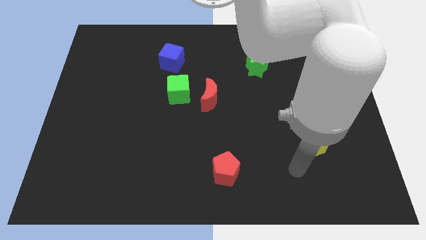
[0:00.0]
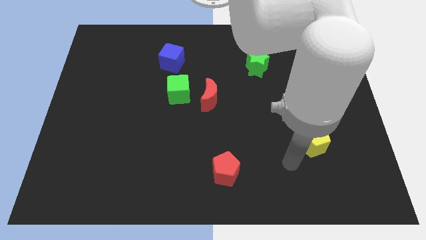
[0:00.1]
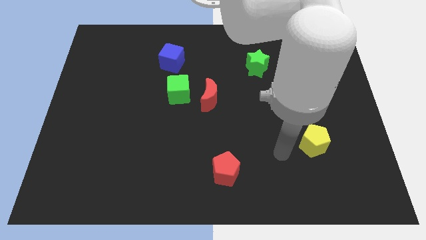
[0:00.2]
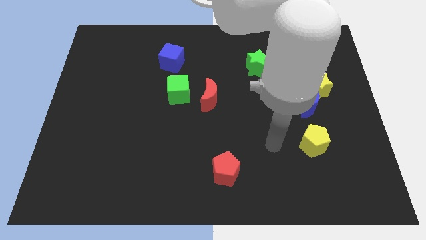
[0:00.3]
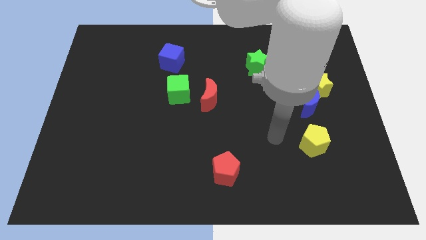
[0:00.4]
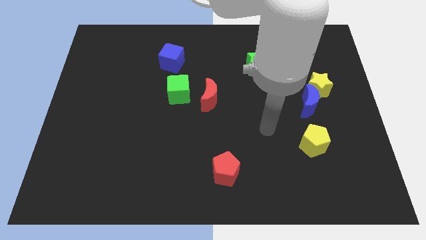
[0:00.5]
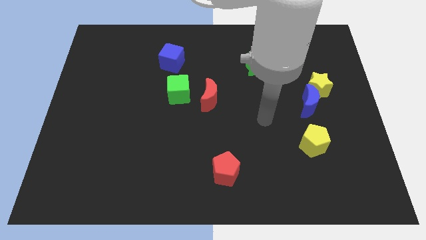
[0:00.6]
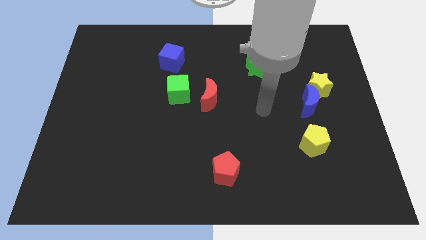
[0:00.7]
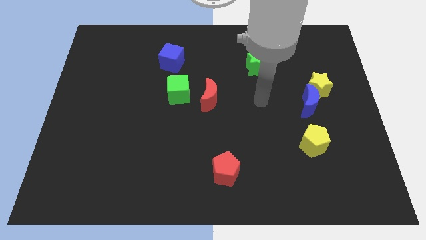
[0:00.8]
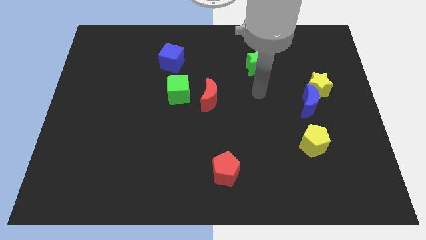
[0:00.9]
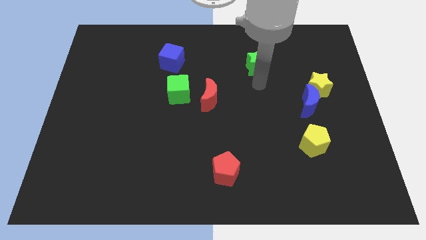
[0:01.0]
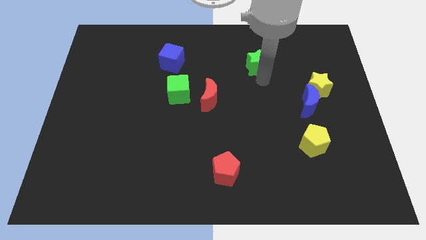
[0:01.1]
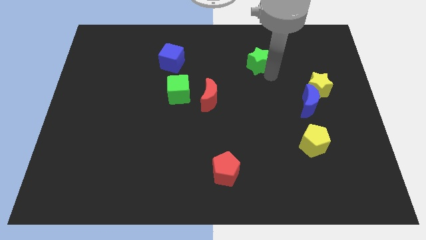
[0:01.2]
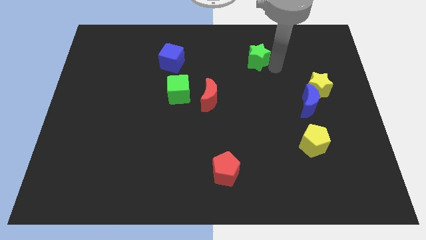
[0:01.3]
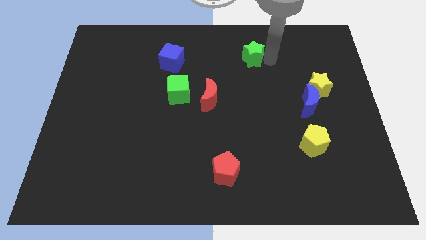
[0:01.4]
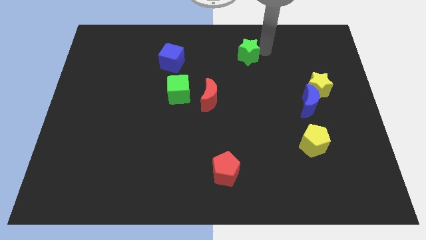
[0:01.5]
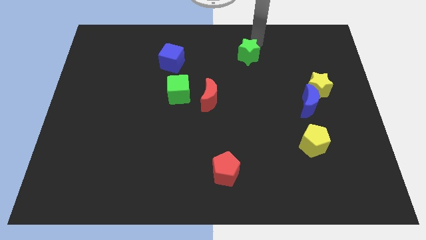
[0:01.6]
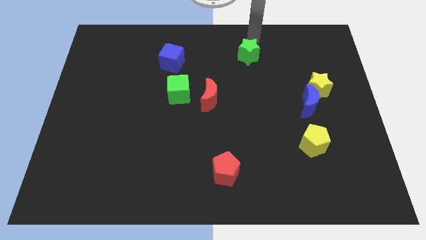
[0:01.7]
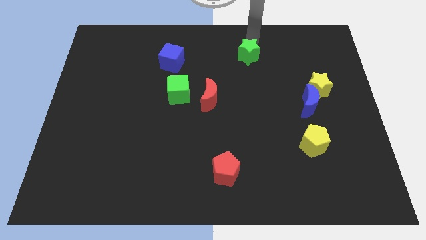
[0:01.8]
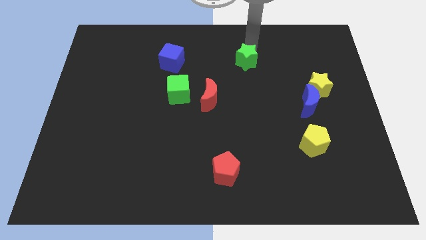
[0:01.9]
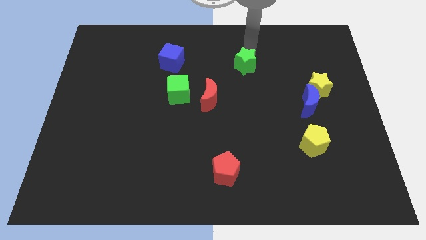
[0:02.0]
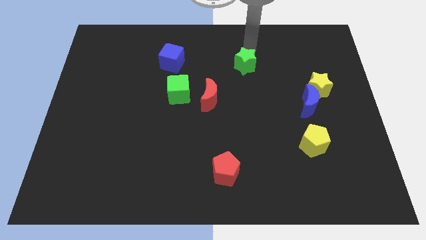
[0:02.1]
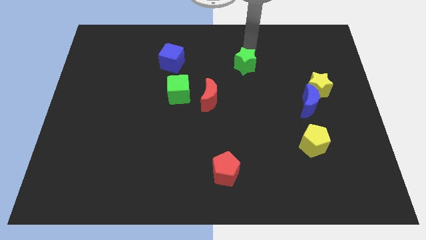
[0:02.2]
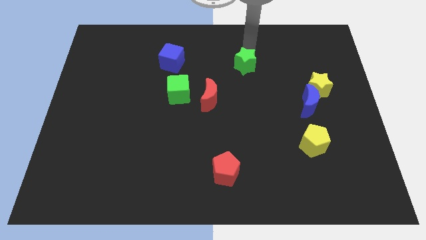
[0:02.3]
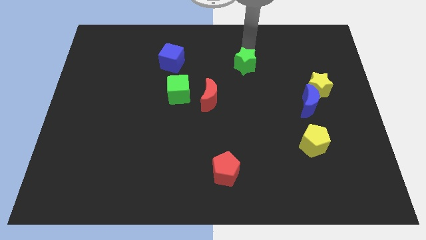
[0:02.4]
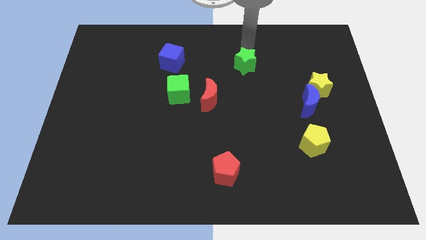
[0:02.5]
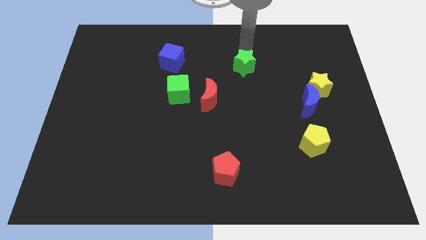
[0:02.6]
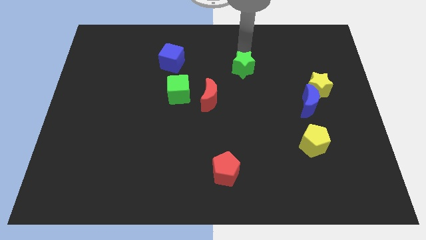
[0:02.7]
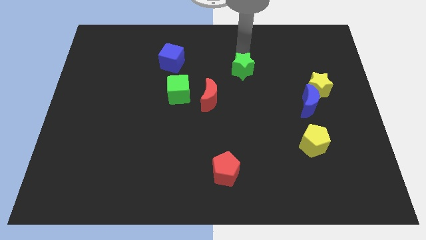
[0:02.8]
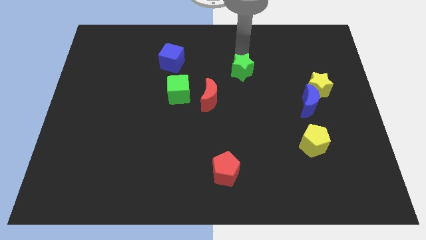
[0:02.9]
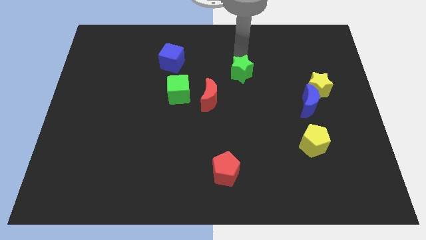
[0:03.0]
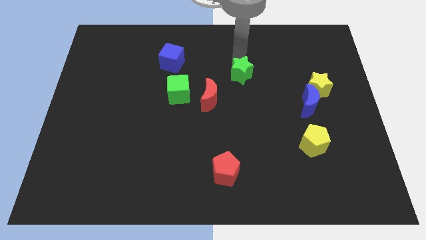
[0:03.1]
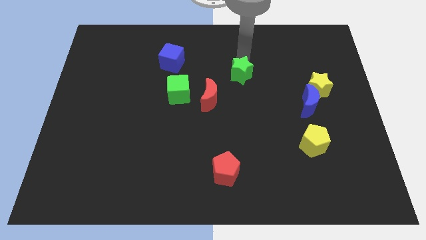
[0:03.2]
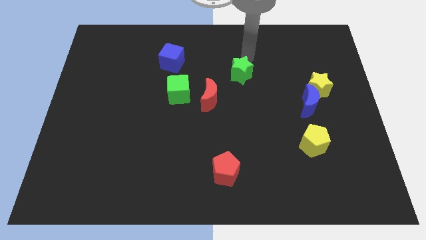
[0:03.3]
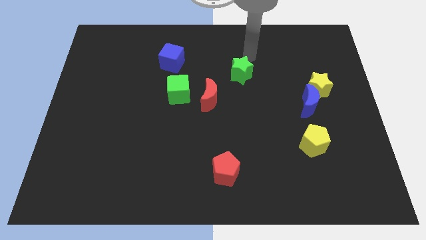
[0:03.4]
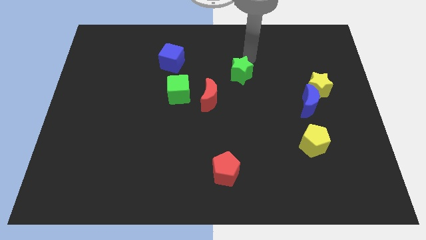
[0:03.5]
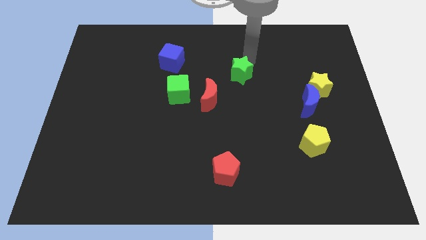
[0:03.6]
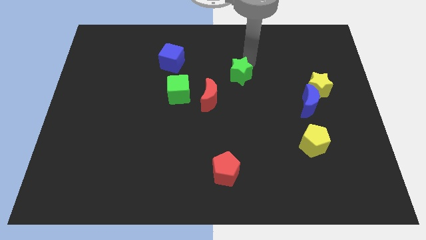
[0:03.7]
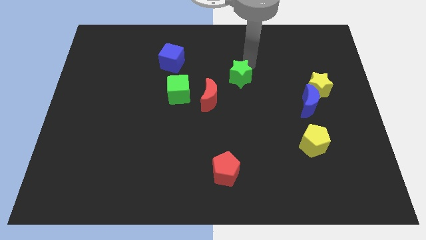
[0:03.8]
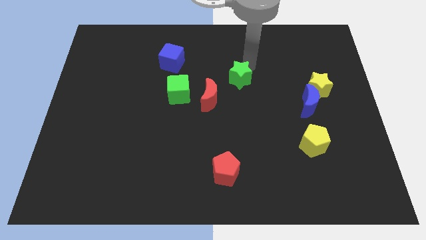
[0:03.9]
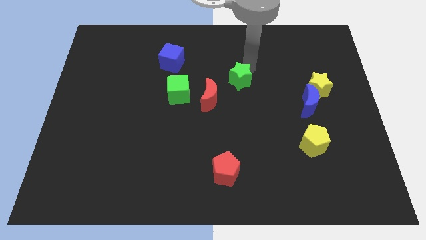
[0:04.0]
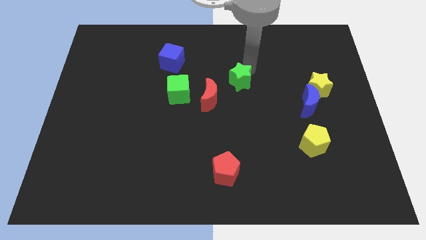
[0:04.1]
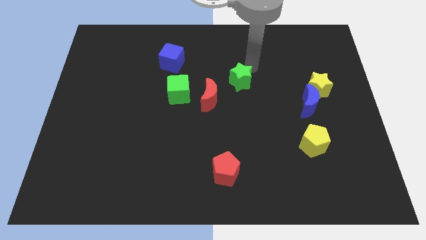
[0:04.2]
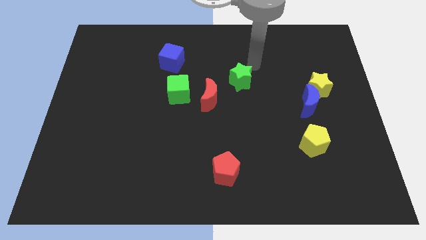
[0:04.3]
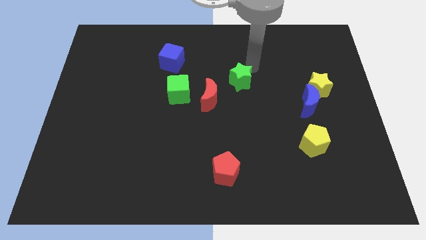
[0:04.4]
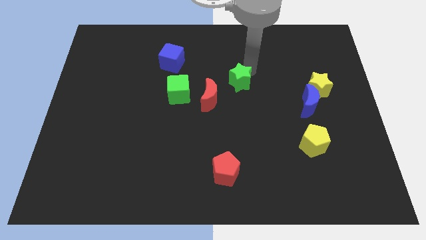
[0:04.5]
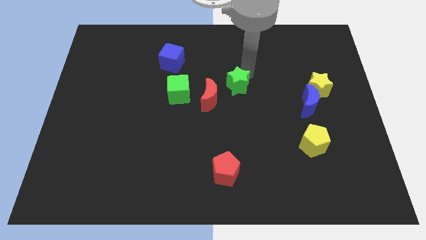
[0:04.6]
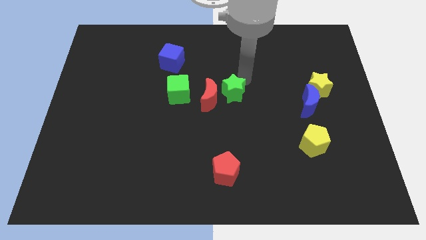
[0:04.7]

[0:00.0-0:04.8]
slide the green star to the red moon

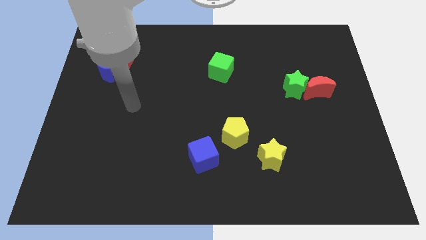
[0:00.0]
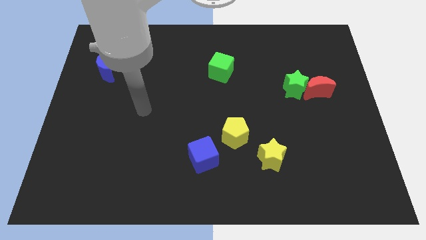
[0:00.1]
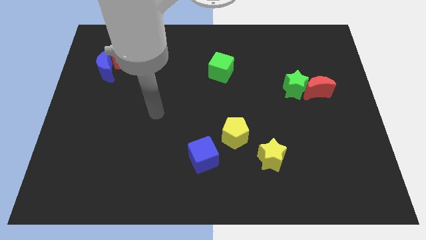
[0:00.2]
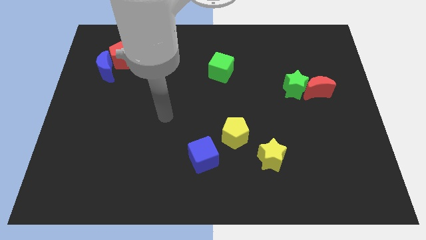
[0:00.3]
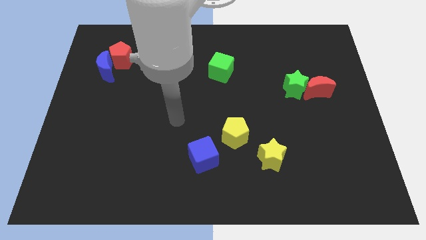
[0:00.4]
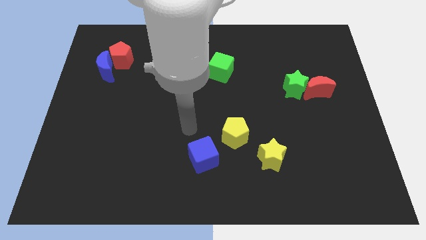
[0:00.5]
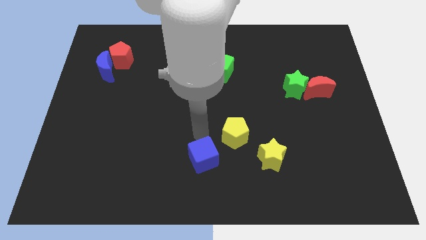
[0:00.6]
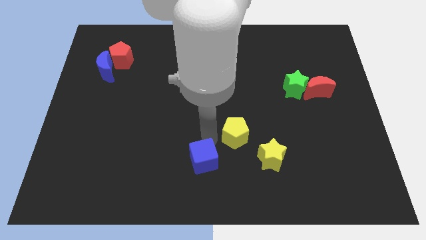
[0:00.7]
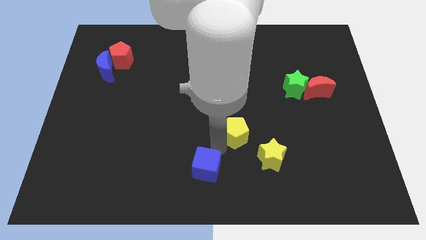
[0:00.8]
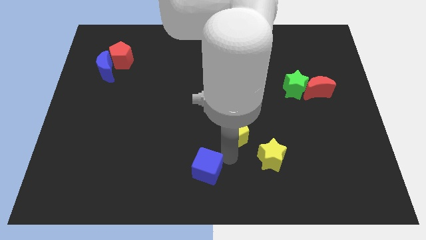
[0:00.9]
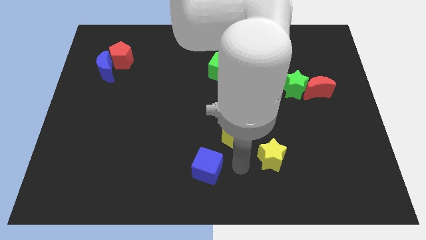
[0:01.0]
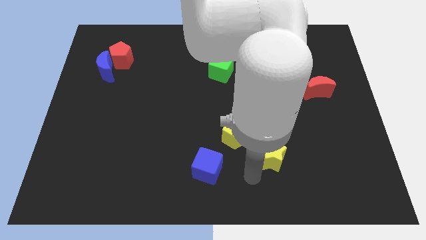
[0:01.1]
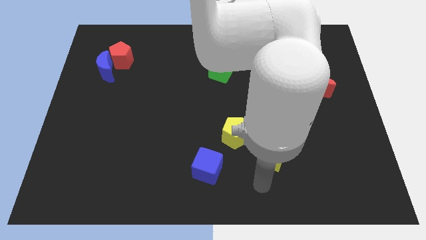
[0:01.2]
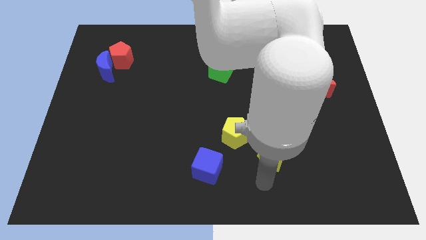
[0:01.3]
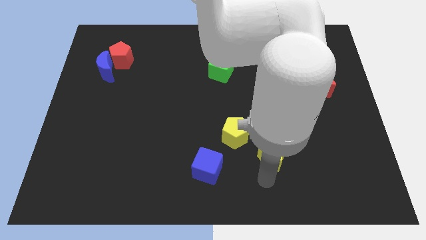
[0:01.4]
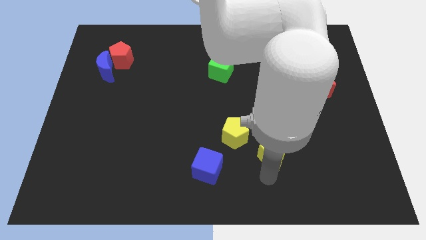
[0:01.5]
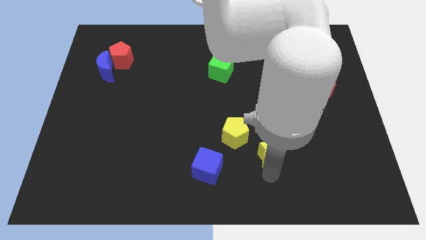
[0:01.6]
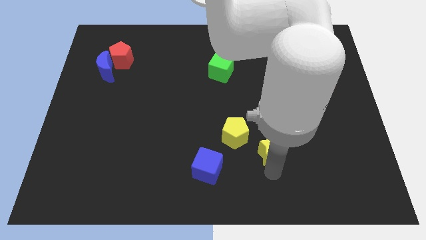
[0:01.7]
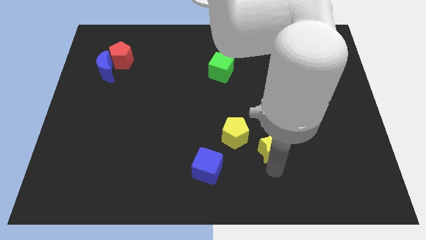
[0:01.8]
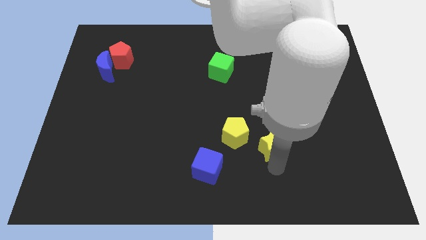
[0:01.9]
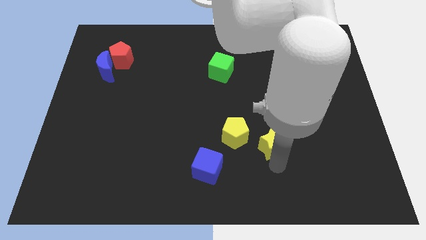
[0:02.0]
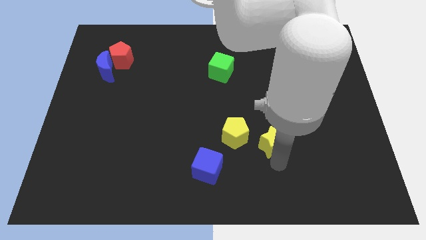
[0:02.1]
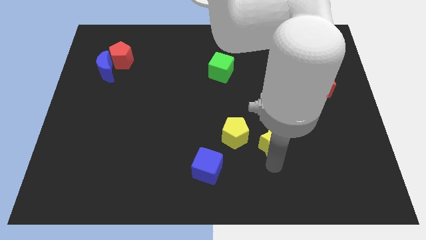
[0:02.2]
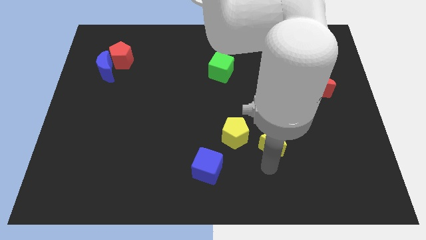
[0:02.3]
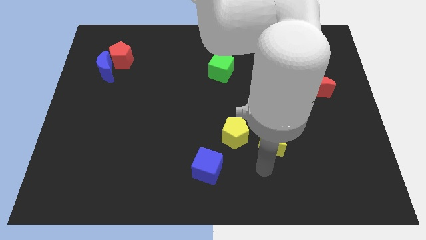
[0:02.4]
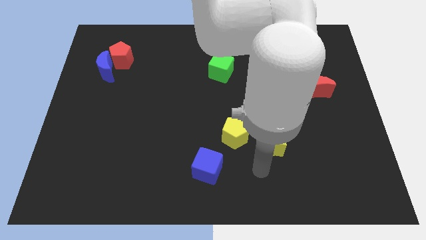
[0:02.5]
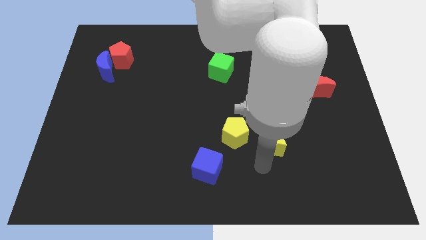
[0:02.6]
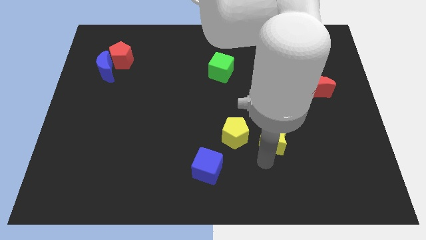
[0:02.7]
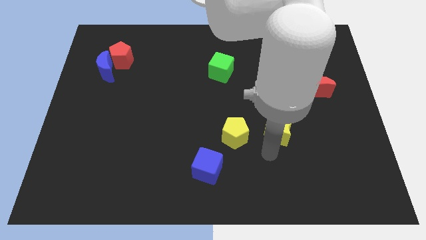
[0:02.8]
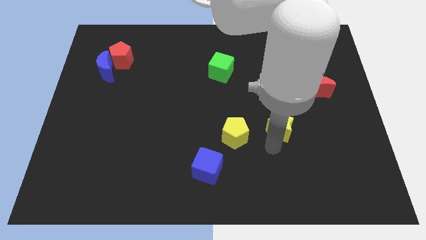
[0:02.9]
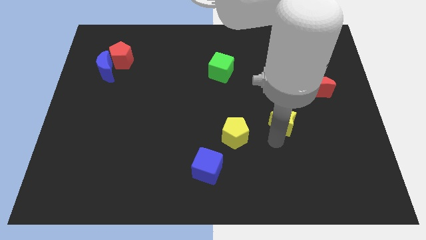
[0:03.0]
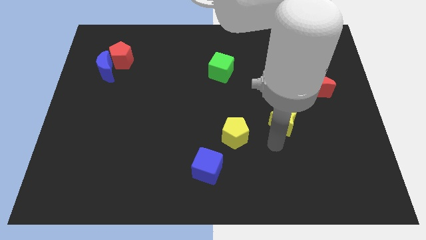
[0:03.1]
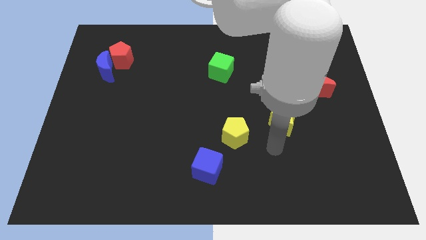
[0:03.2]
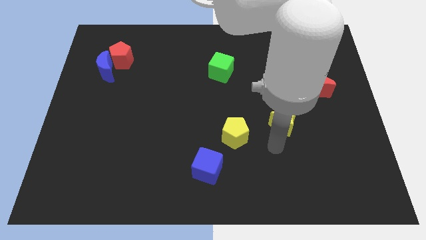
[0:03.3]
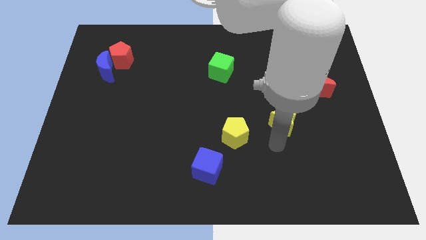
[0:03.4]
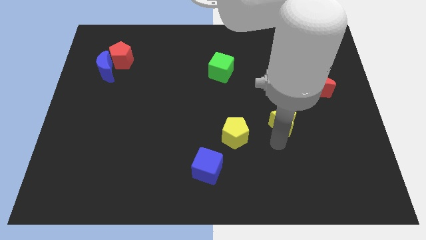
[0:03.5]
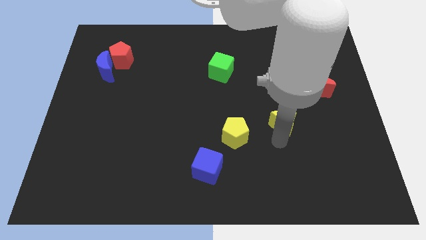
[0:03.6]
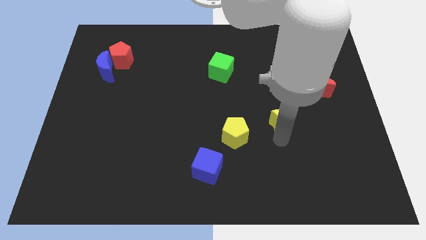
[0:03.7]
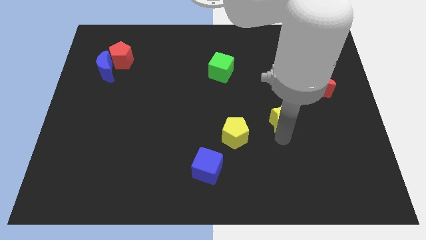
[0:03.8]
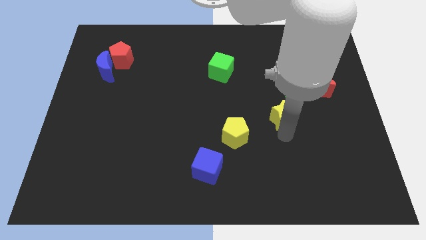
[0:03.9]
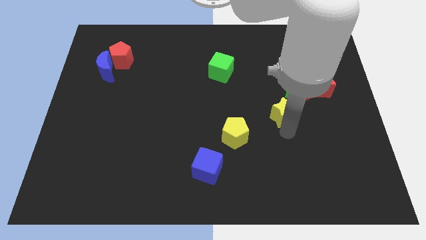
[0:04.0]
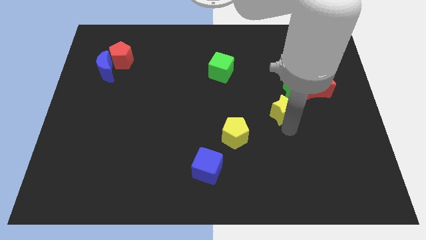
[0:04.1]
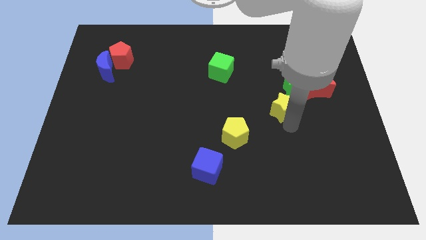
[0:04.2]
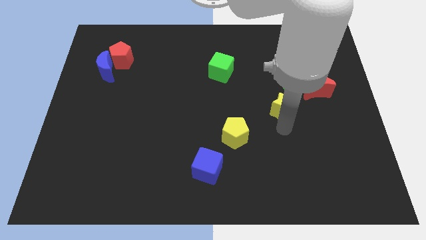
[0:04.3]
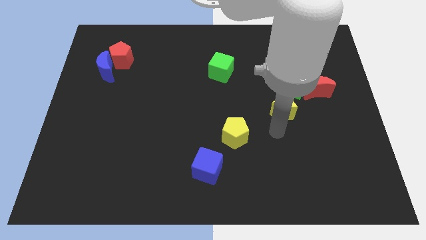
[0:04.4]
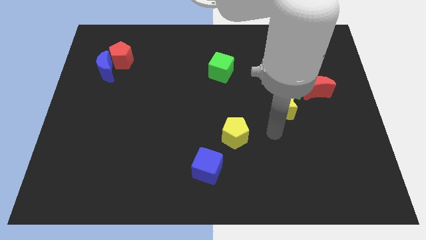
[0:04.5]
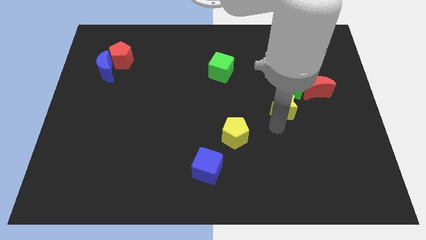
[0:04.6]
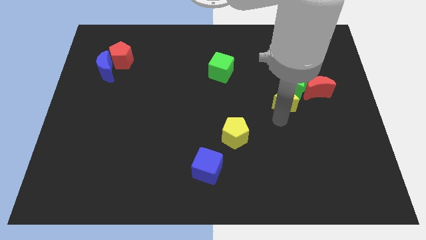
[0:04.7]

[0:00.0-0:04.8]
move the yellow star to the green star
